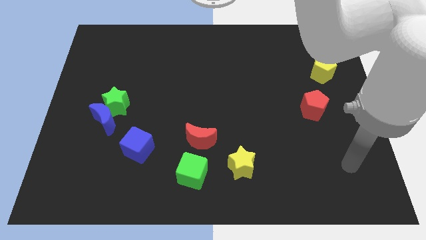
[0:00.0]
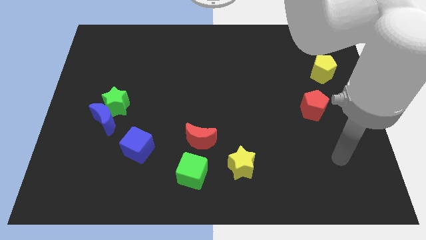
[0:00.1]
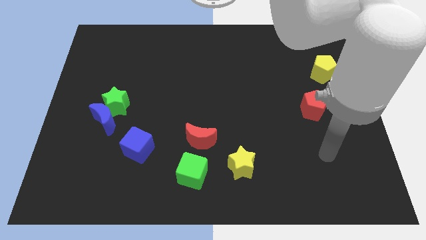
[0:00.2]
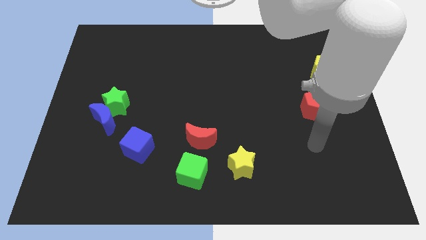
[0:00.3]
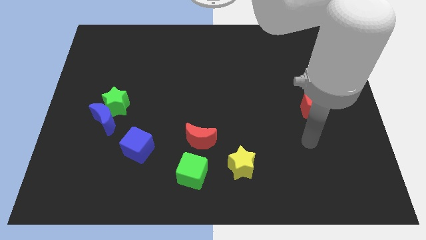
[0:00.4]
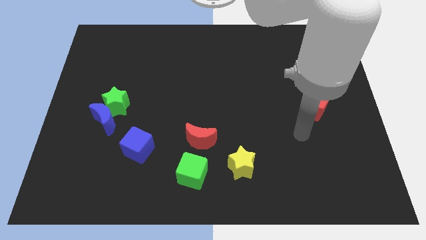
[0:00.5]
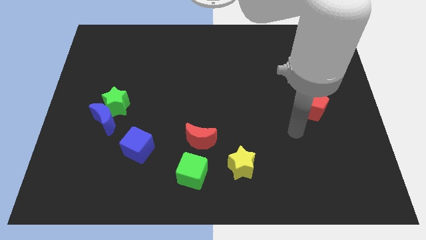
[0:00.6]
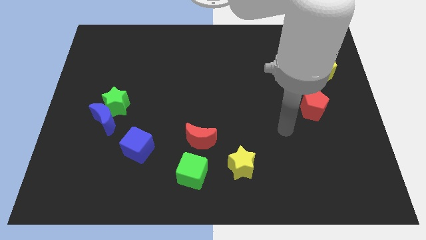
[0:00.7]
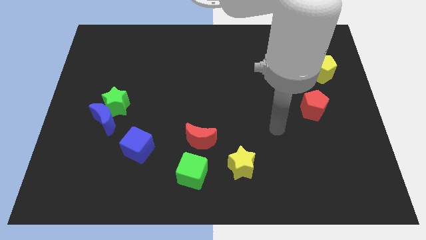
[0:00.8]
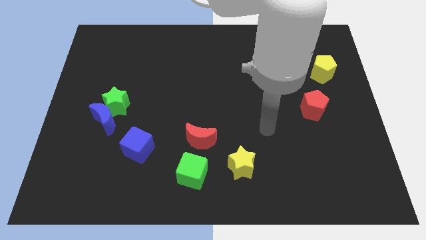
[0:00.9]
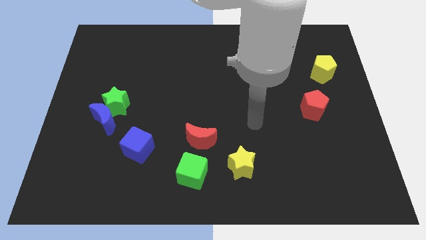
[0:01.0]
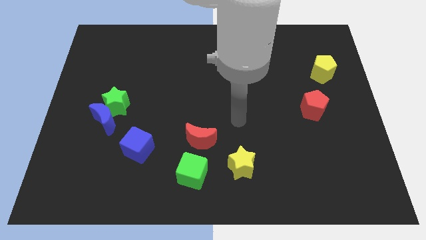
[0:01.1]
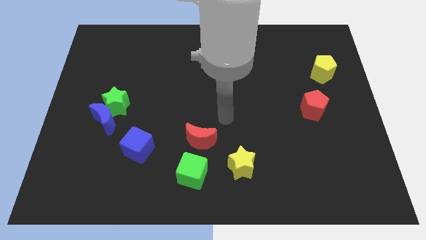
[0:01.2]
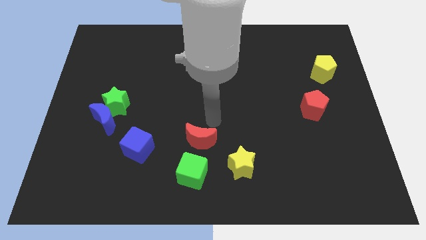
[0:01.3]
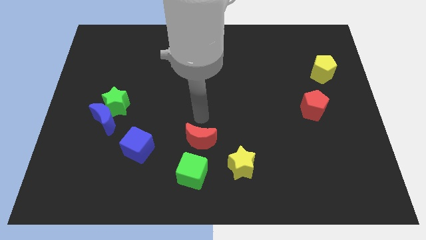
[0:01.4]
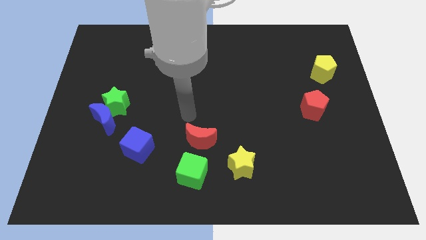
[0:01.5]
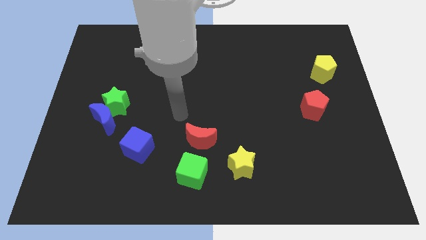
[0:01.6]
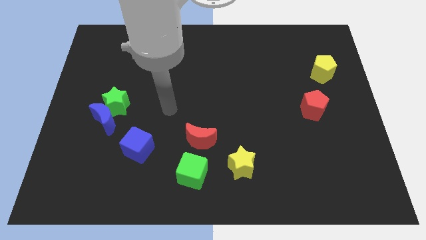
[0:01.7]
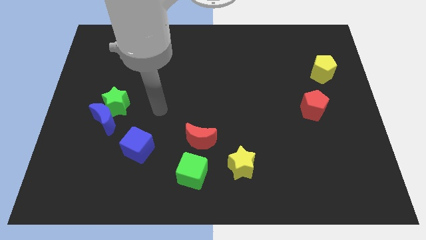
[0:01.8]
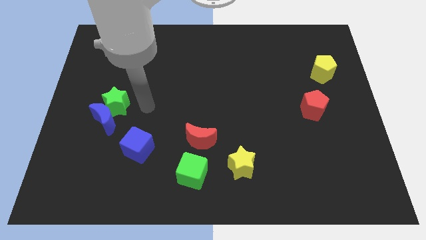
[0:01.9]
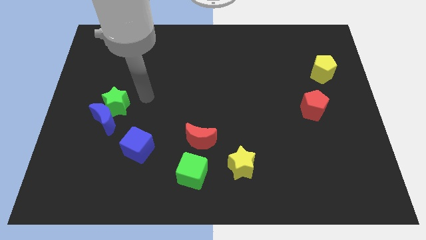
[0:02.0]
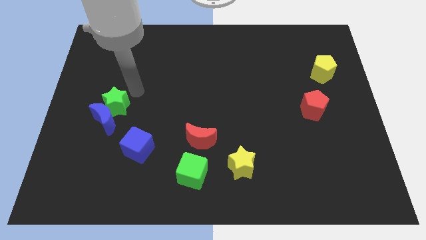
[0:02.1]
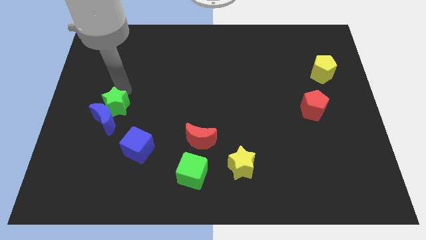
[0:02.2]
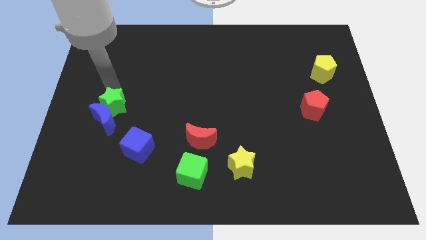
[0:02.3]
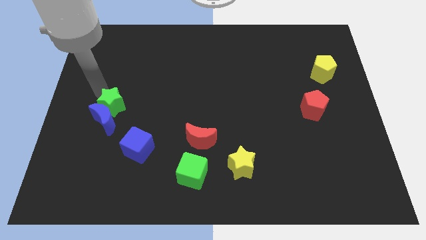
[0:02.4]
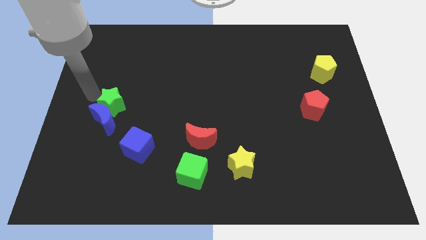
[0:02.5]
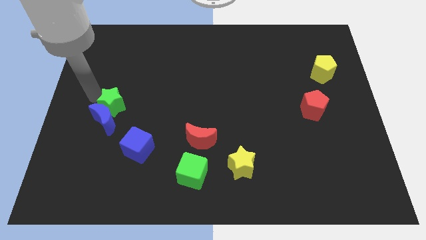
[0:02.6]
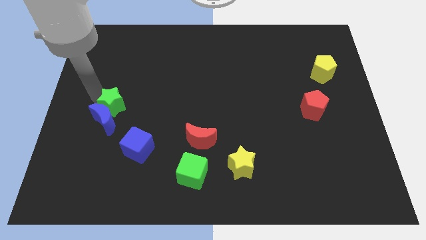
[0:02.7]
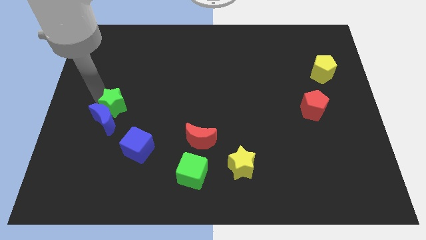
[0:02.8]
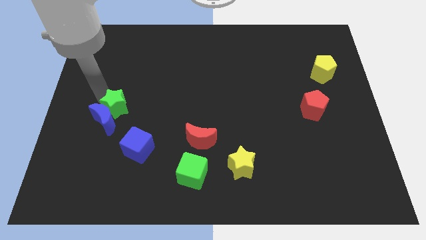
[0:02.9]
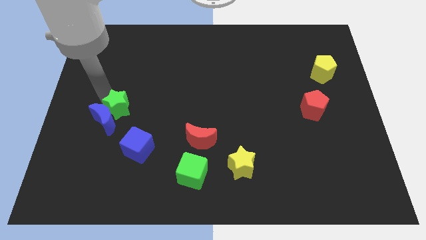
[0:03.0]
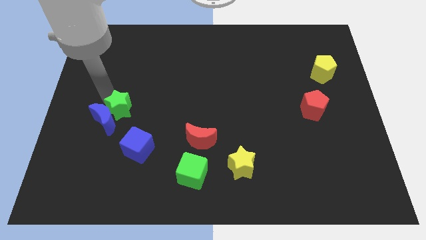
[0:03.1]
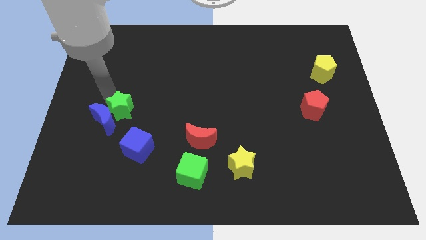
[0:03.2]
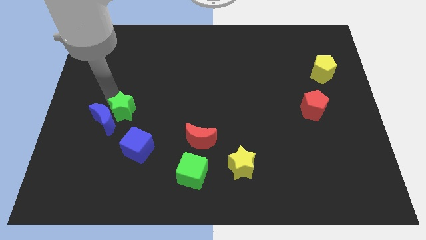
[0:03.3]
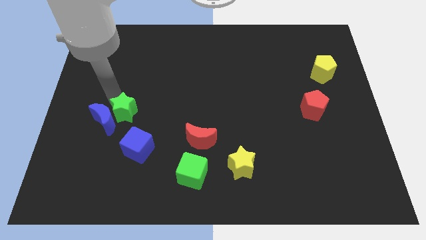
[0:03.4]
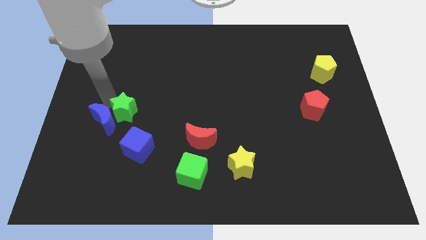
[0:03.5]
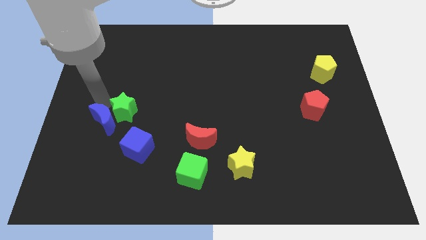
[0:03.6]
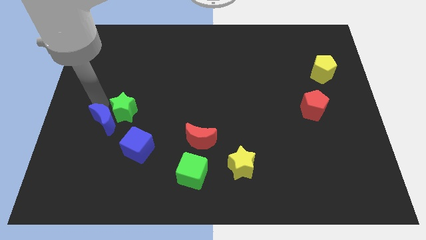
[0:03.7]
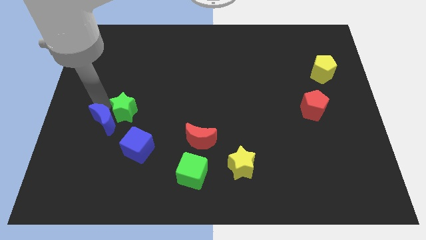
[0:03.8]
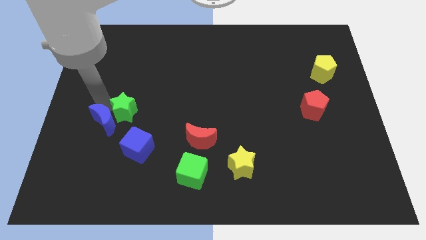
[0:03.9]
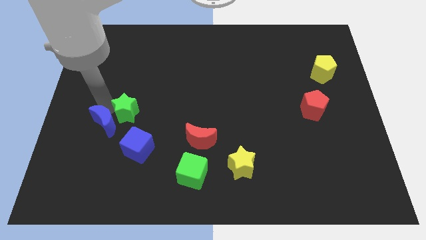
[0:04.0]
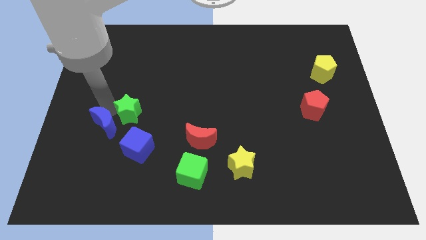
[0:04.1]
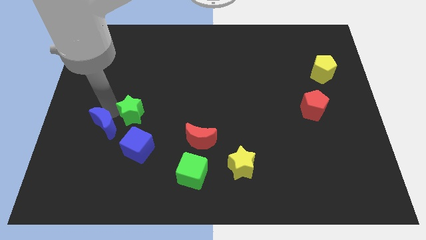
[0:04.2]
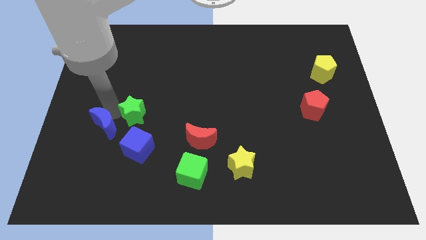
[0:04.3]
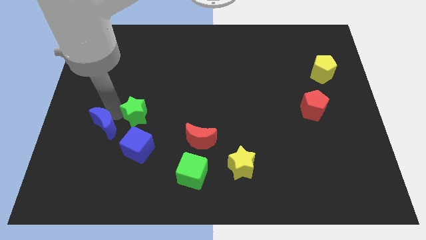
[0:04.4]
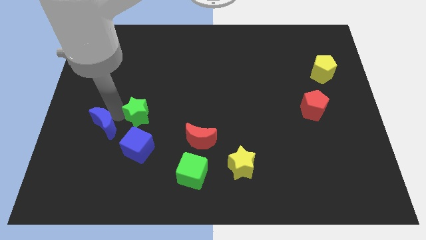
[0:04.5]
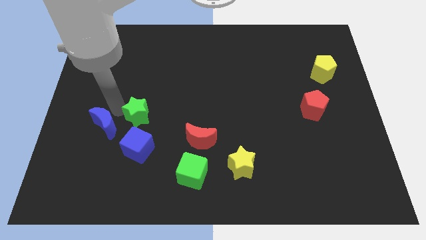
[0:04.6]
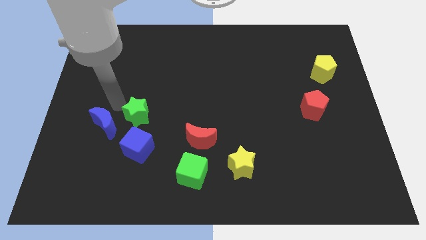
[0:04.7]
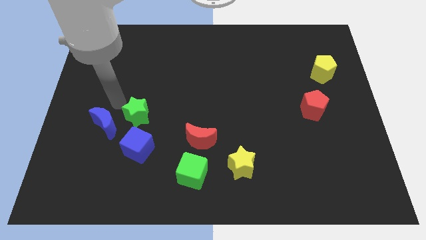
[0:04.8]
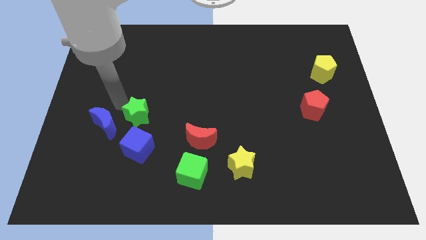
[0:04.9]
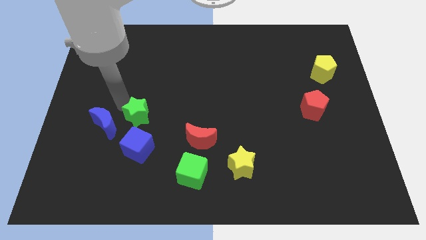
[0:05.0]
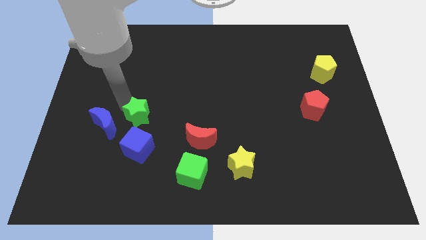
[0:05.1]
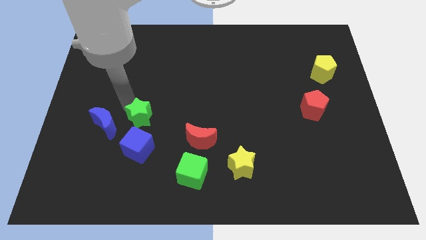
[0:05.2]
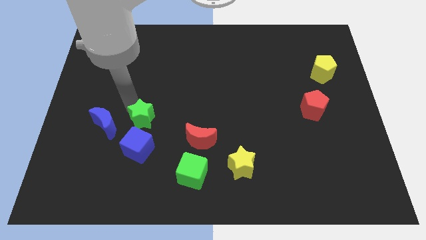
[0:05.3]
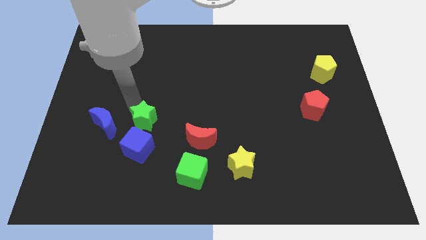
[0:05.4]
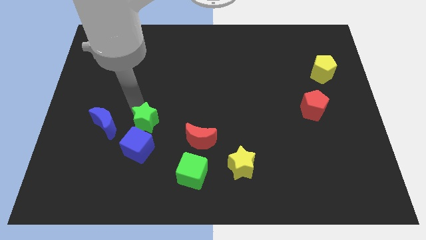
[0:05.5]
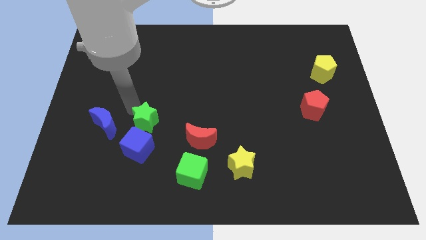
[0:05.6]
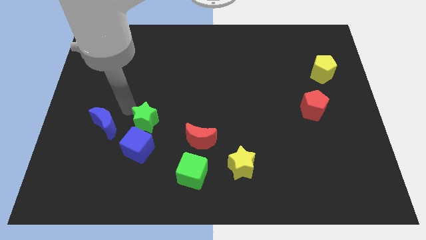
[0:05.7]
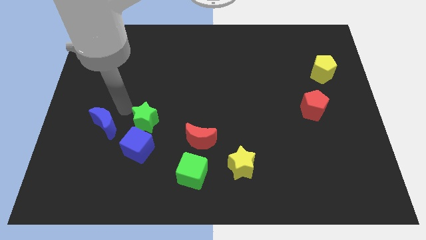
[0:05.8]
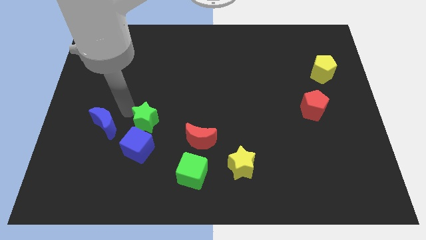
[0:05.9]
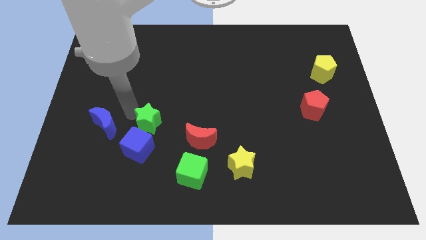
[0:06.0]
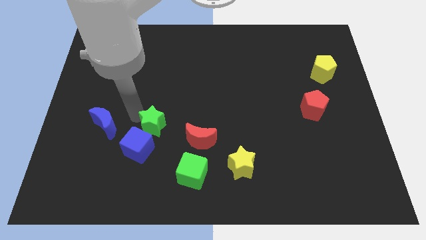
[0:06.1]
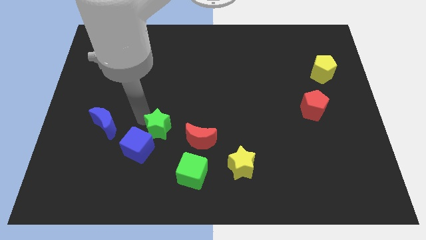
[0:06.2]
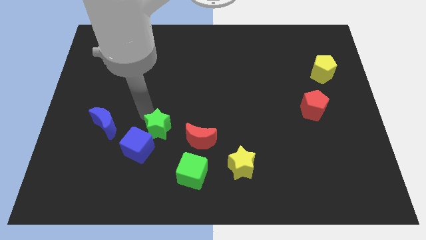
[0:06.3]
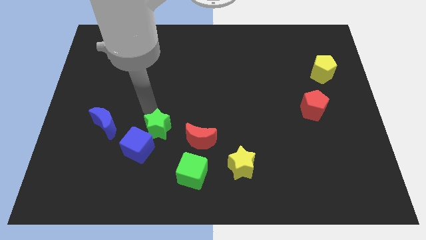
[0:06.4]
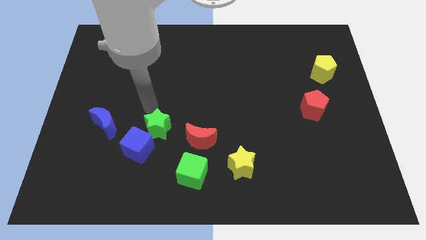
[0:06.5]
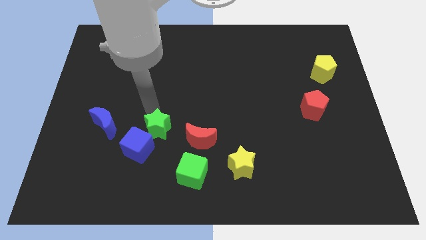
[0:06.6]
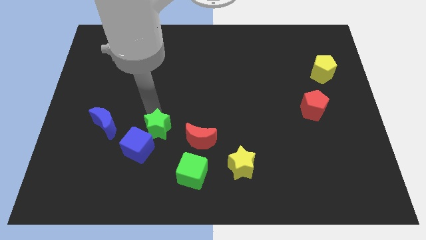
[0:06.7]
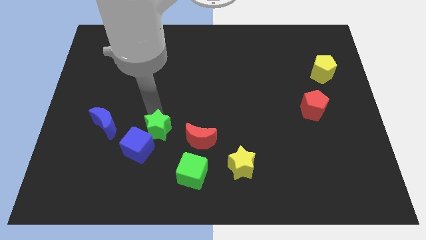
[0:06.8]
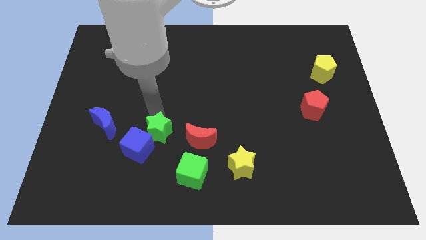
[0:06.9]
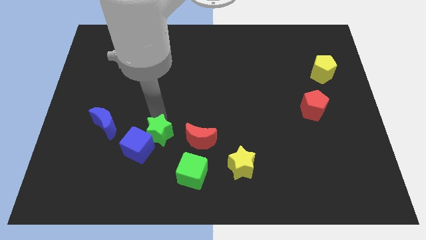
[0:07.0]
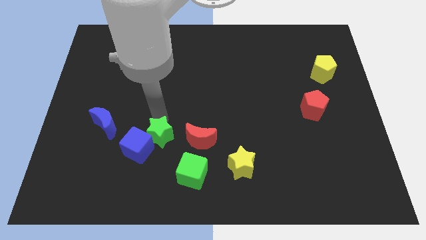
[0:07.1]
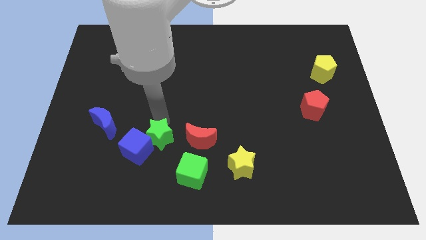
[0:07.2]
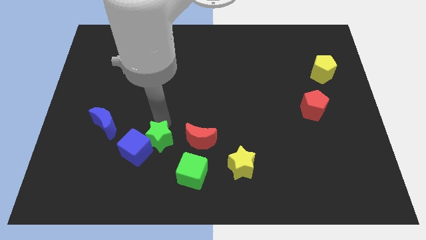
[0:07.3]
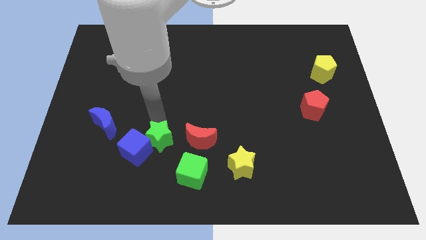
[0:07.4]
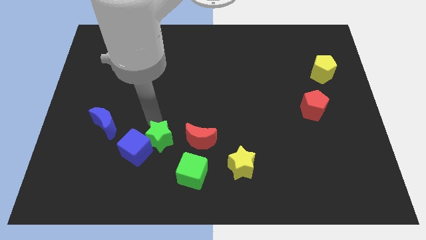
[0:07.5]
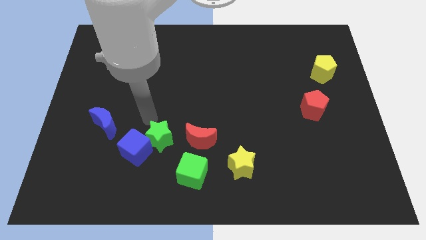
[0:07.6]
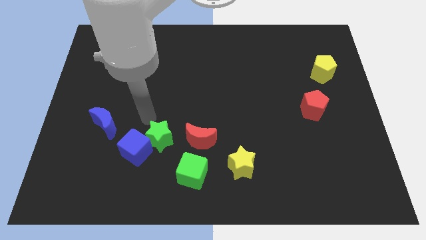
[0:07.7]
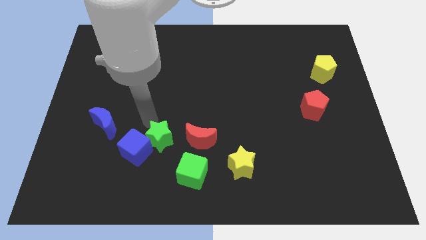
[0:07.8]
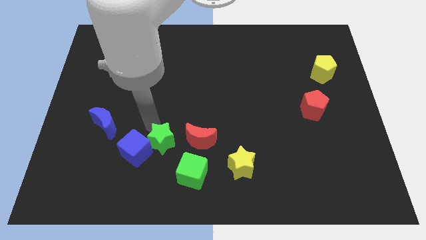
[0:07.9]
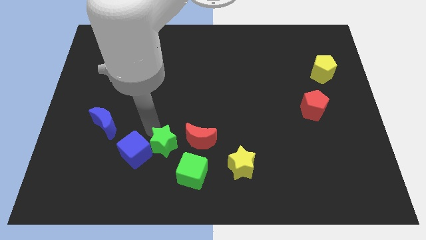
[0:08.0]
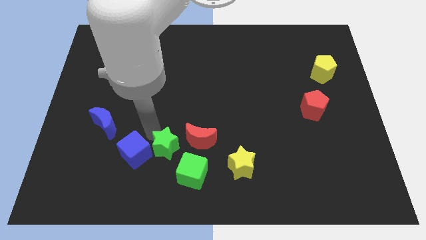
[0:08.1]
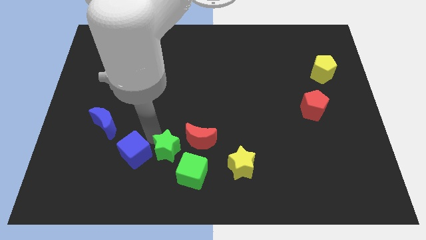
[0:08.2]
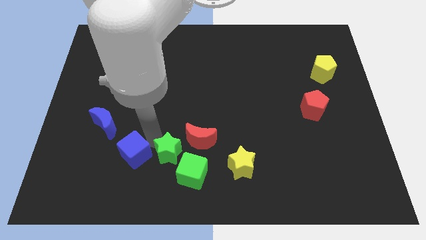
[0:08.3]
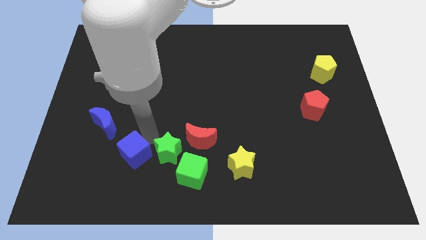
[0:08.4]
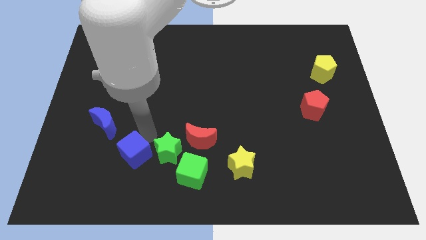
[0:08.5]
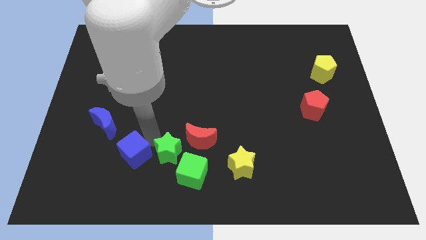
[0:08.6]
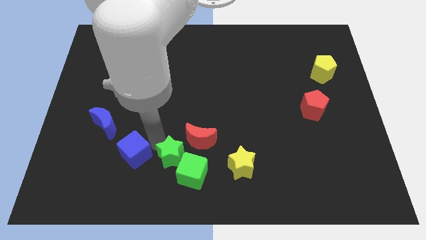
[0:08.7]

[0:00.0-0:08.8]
move the green star to the green cube
